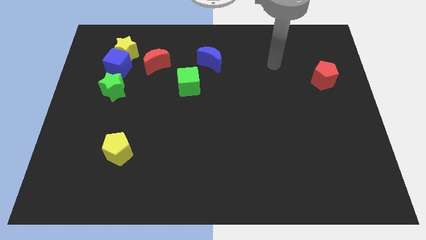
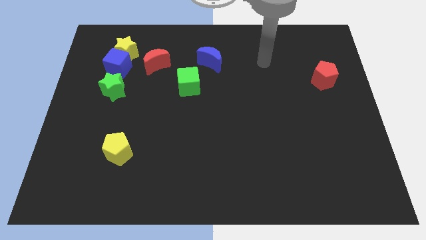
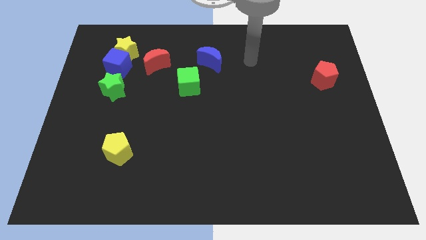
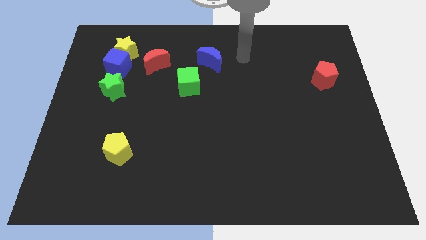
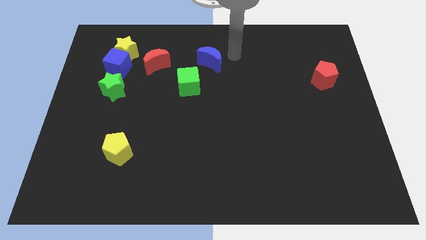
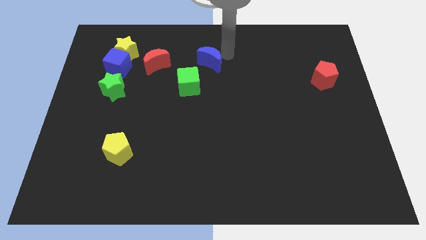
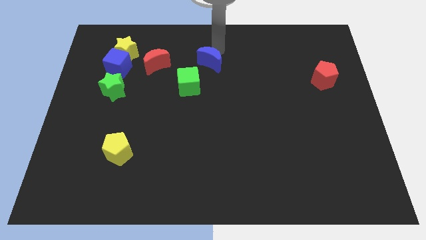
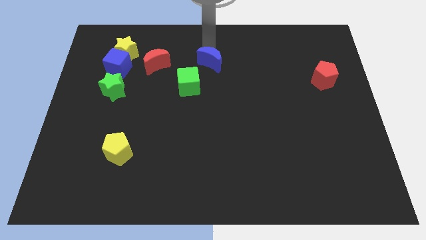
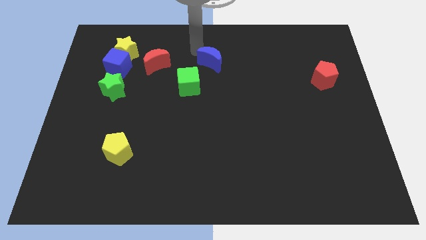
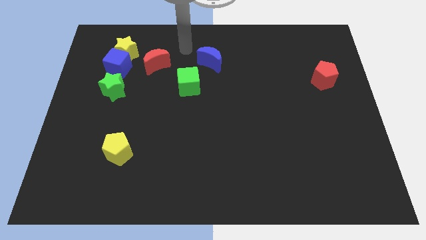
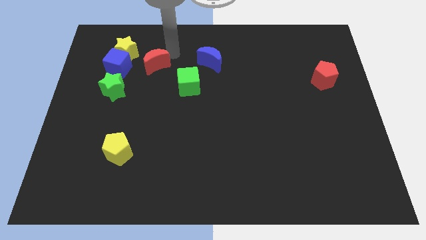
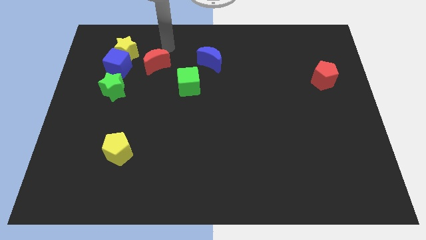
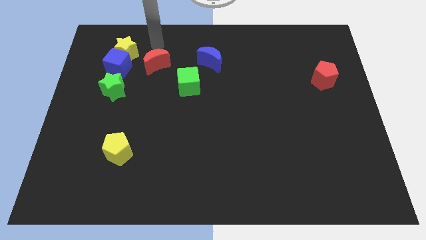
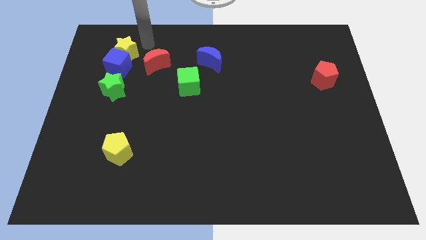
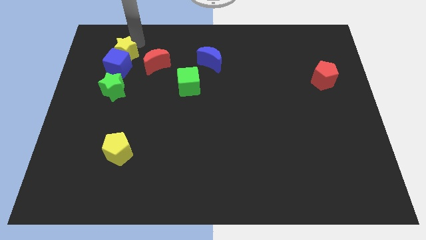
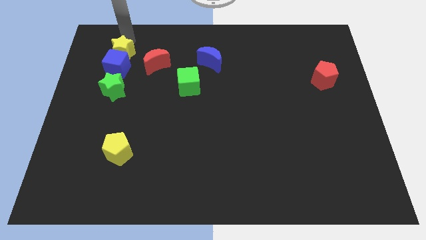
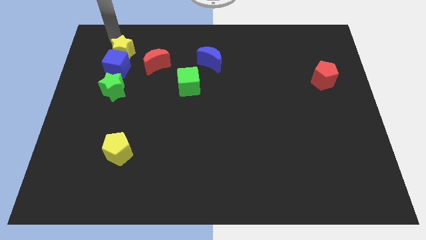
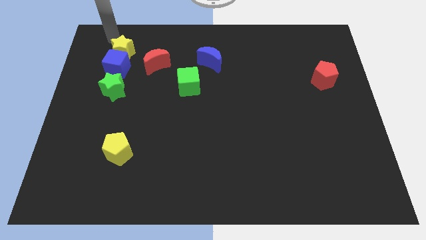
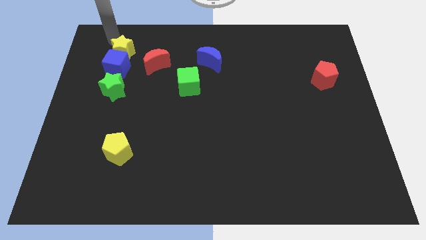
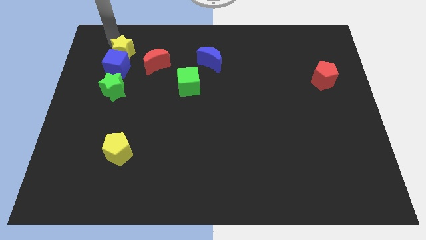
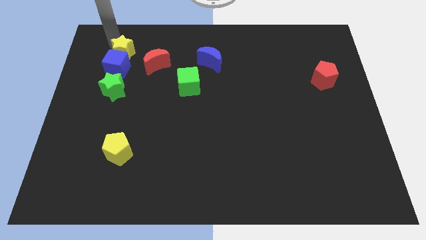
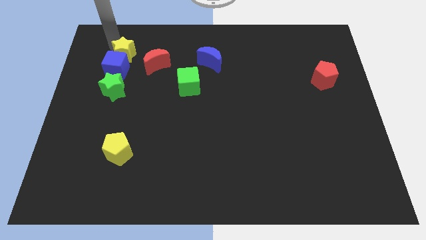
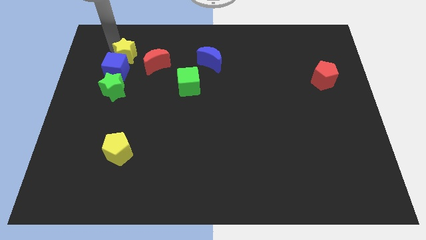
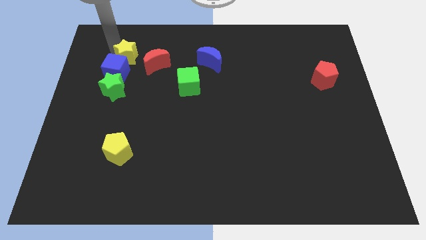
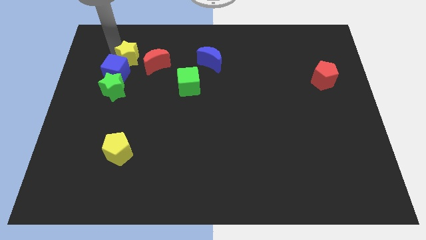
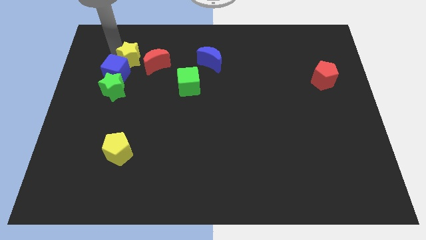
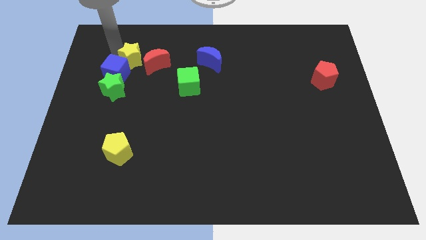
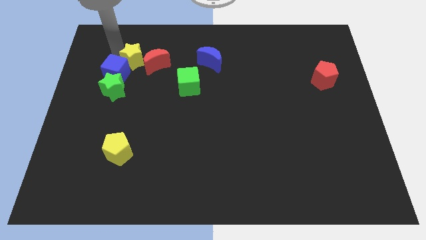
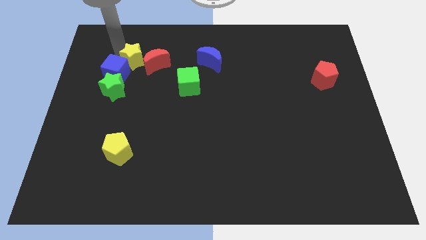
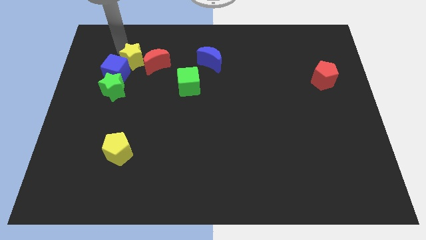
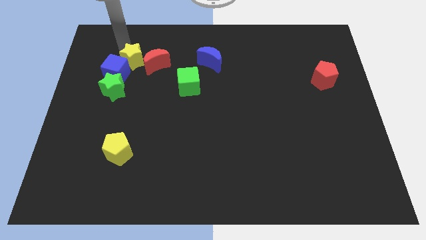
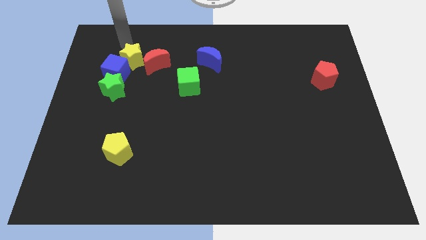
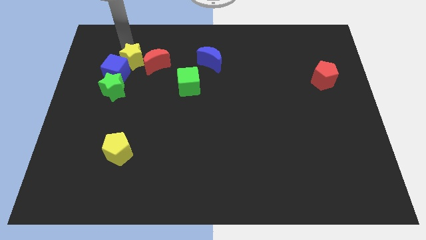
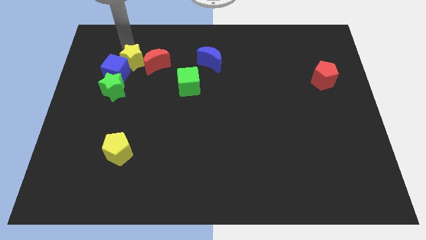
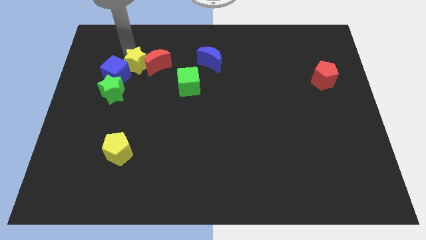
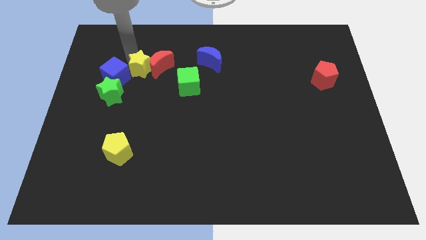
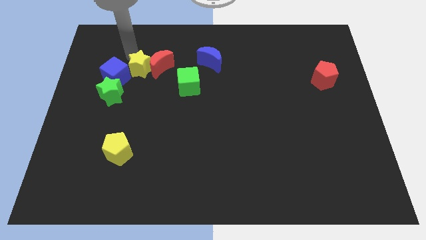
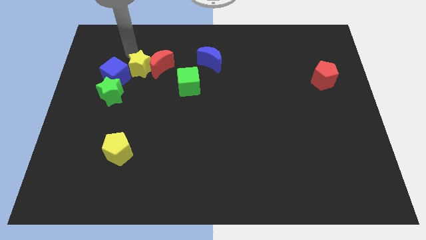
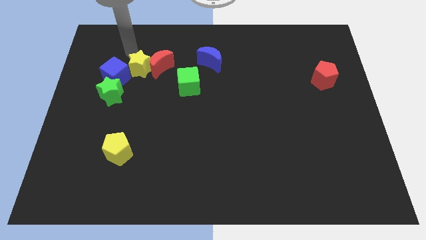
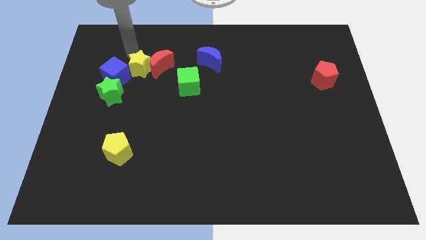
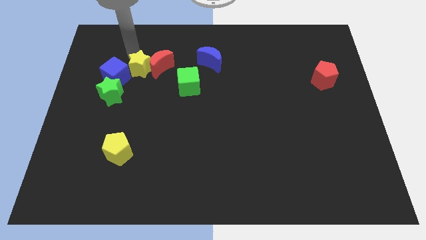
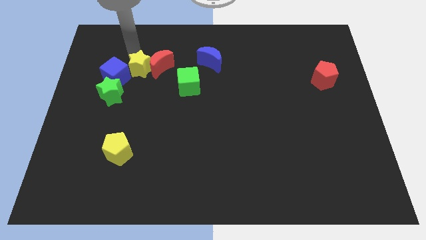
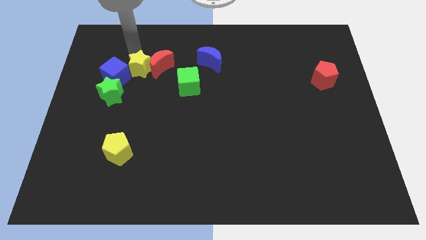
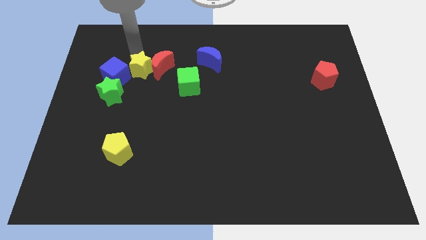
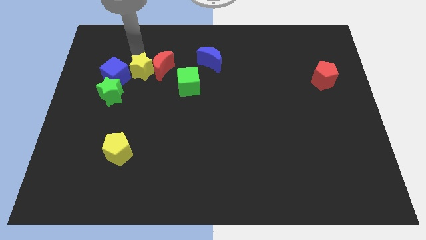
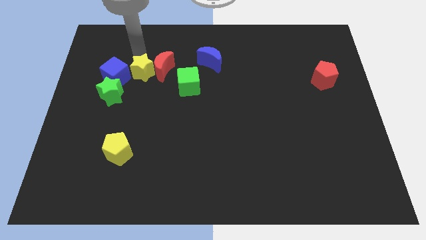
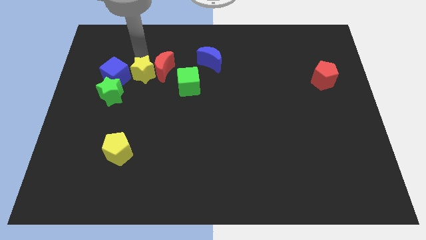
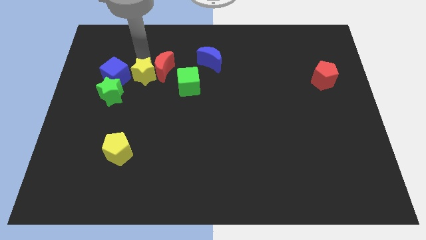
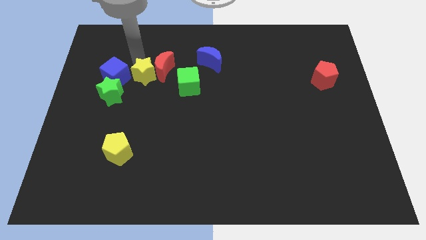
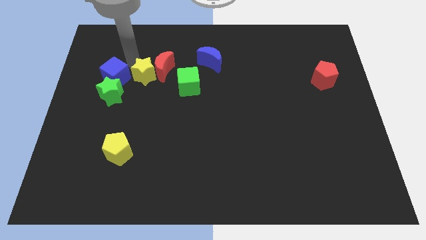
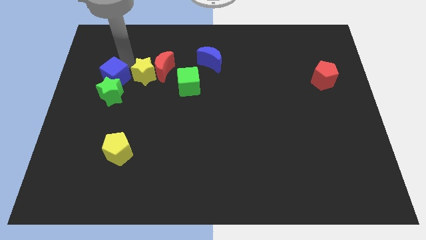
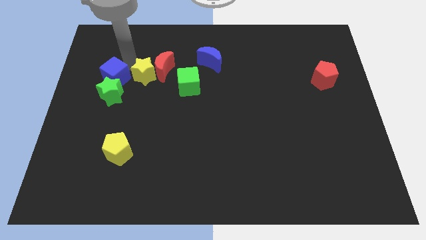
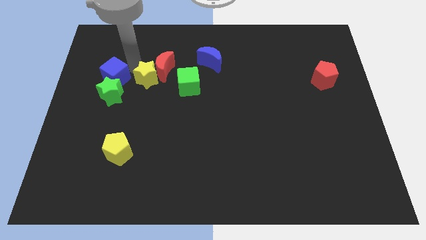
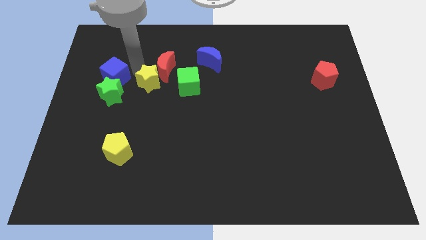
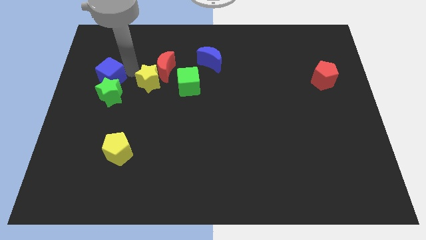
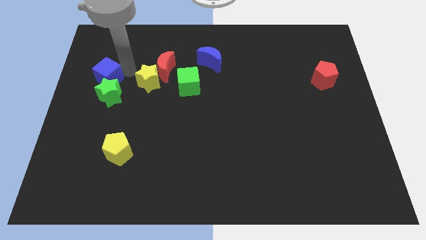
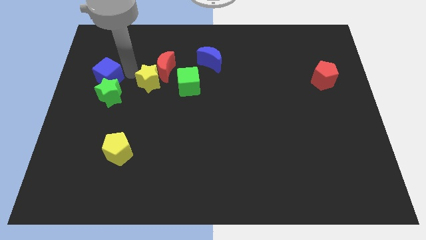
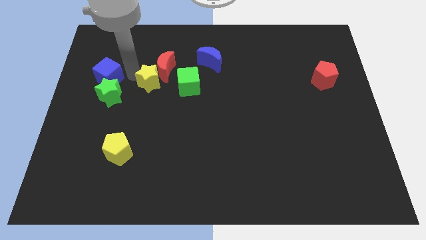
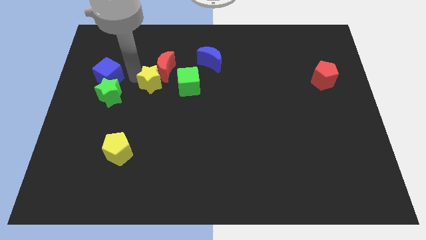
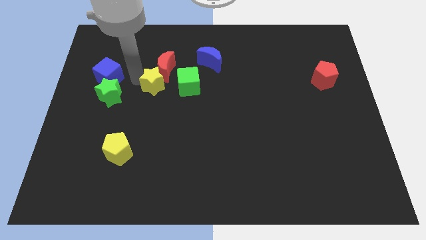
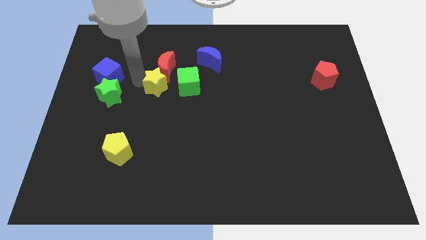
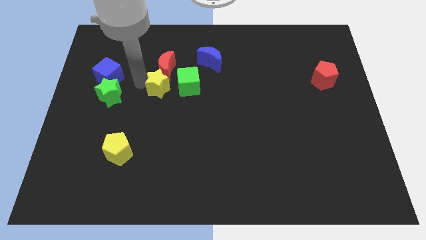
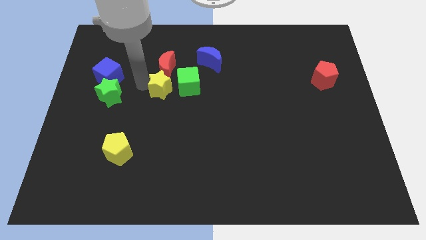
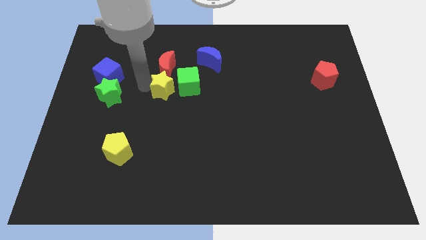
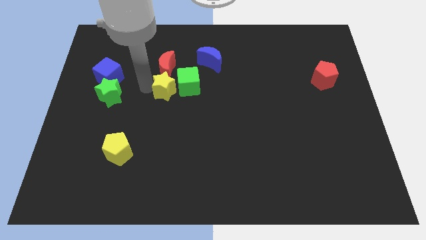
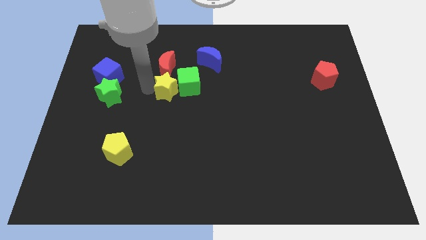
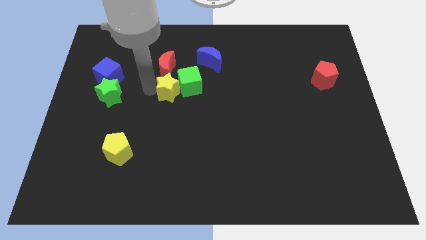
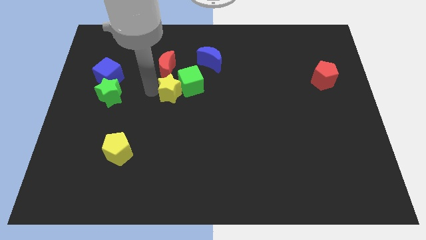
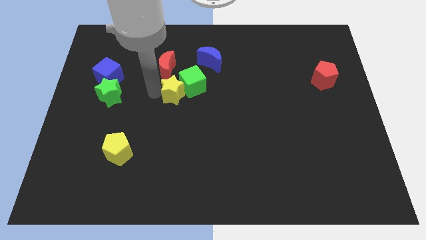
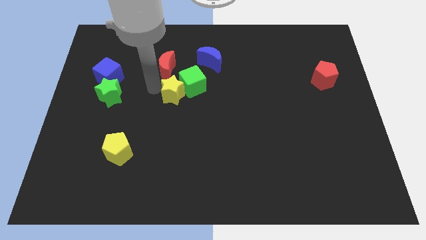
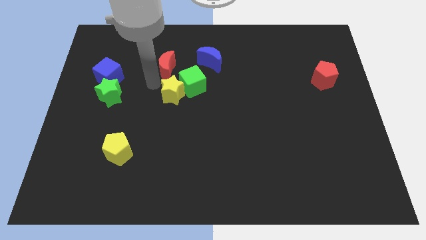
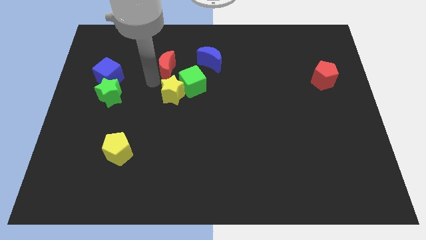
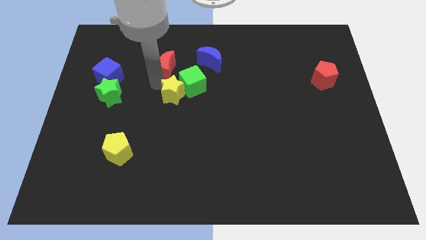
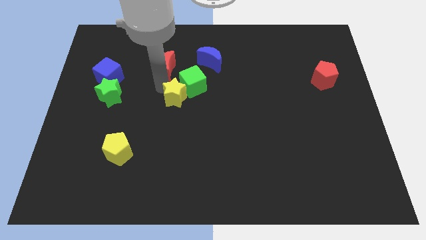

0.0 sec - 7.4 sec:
push the yellow star downwards and to the right diagonally

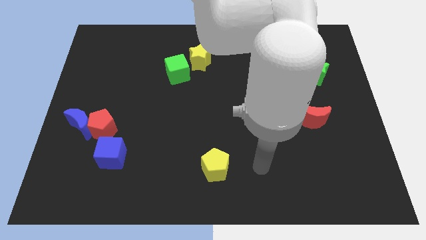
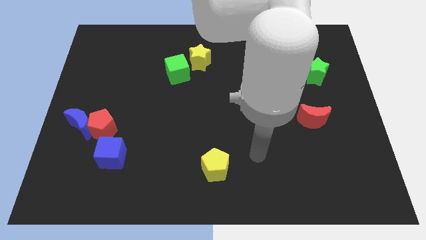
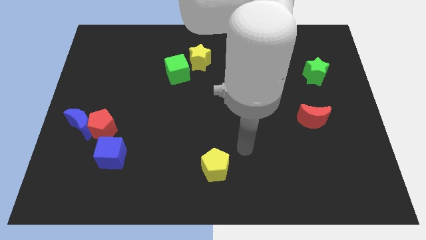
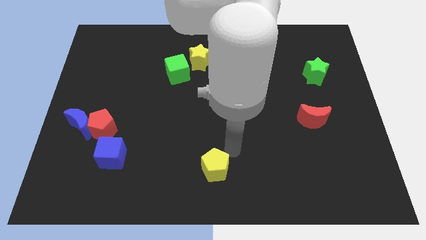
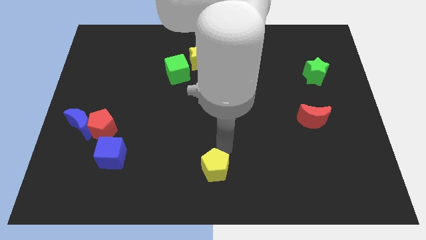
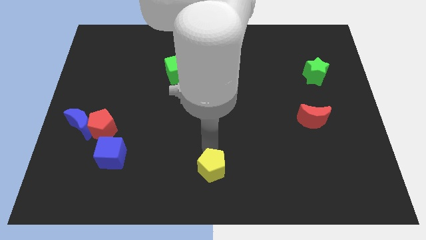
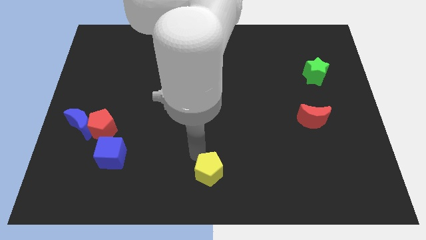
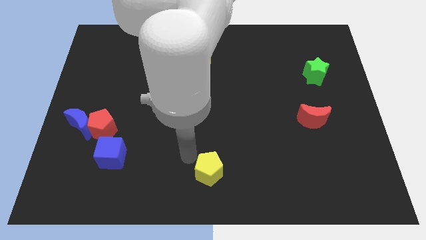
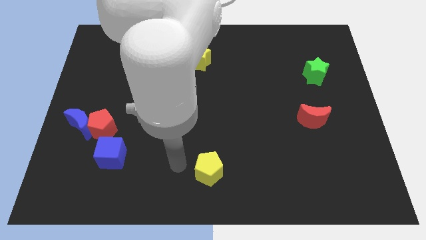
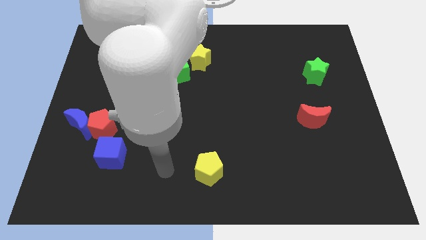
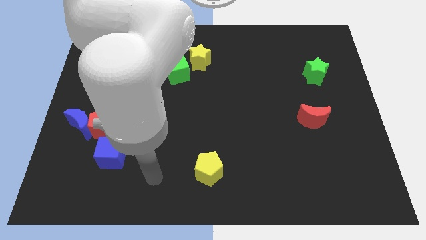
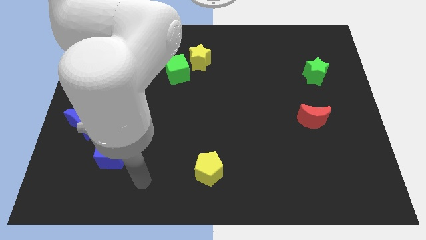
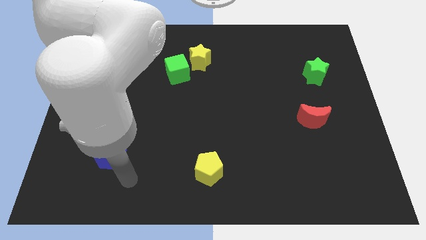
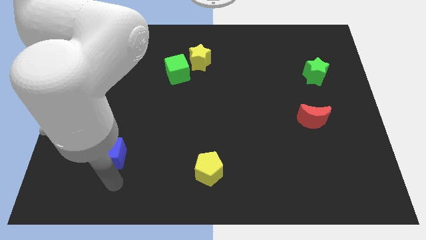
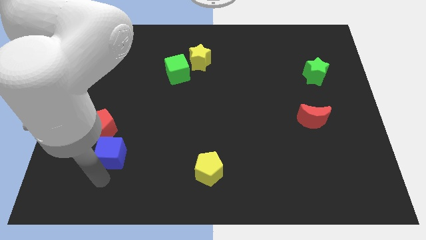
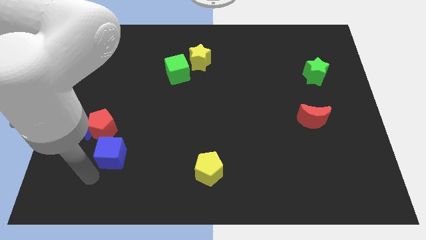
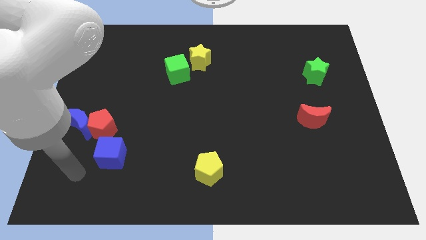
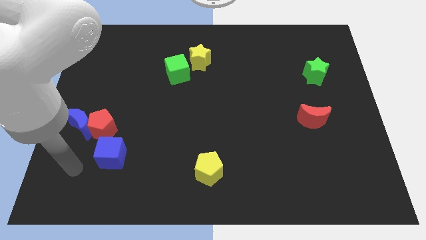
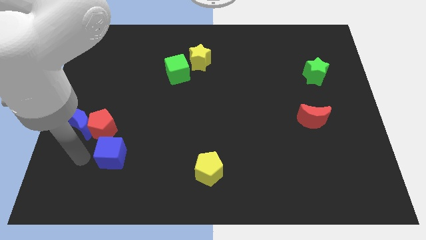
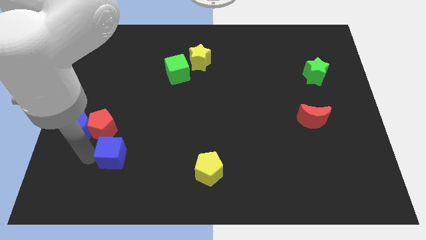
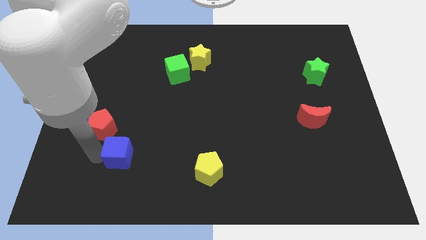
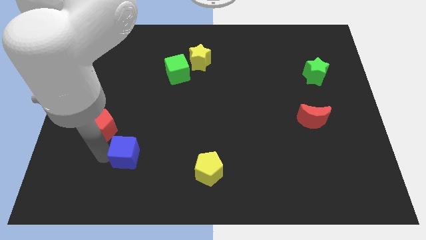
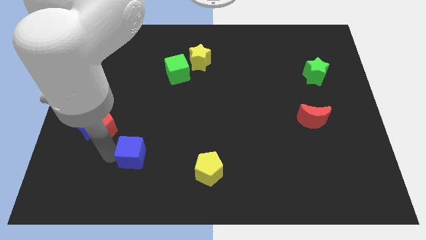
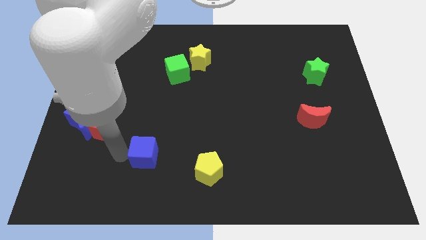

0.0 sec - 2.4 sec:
slightly slide the blue cube to the right
